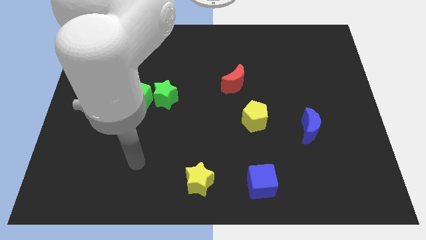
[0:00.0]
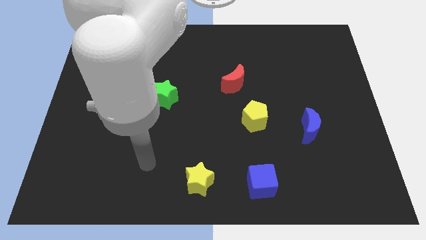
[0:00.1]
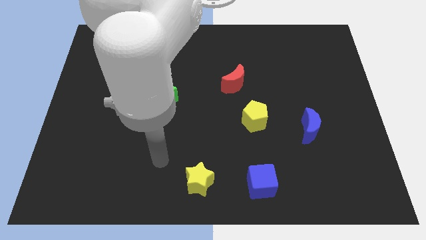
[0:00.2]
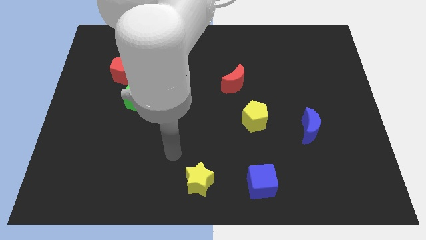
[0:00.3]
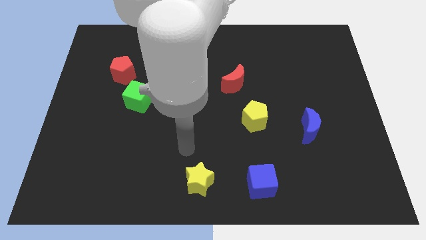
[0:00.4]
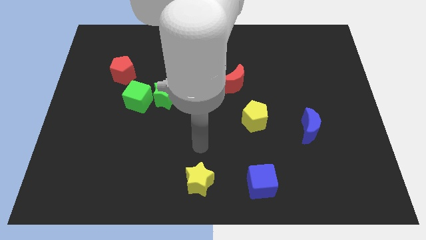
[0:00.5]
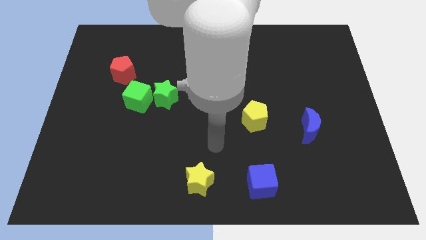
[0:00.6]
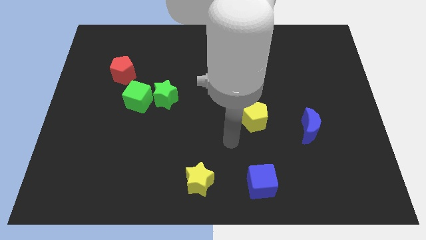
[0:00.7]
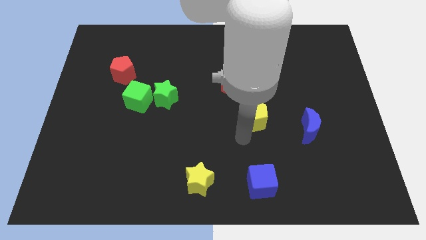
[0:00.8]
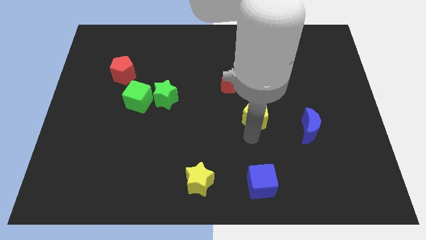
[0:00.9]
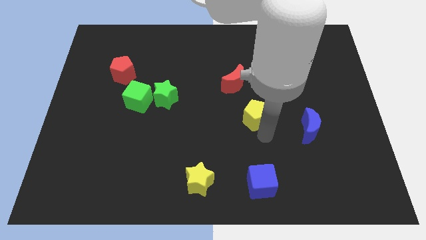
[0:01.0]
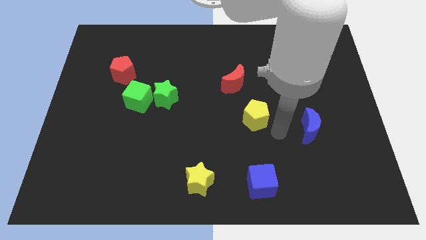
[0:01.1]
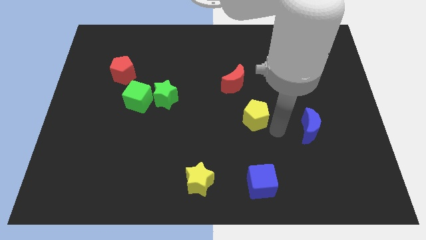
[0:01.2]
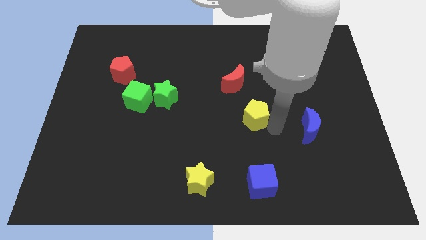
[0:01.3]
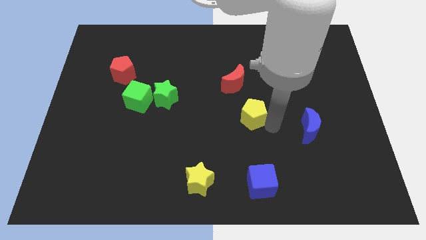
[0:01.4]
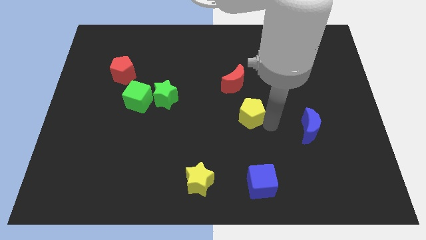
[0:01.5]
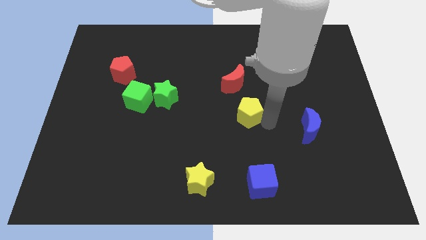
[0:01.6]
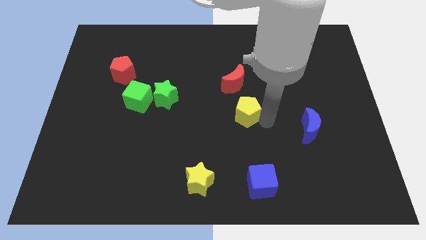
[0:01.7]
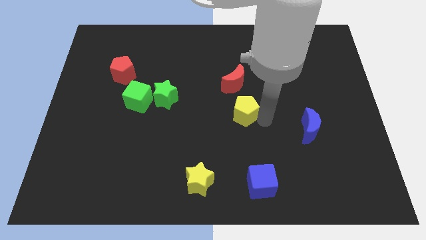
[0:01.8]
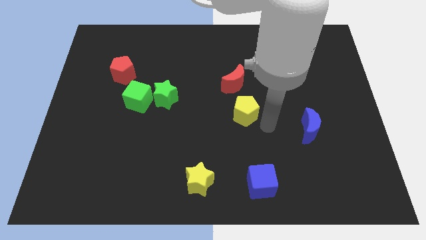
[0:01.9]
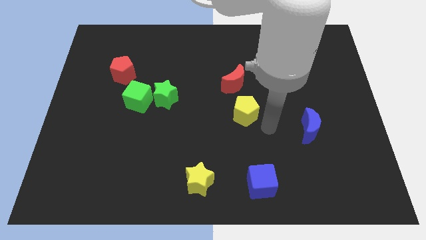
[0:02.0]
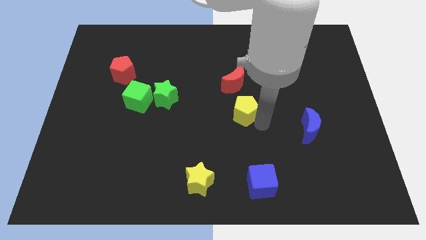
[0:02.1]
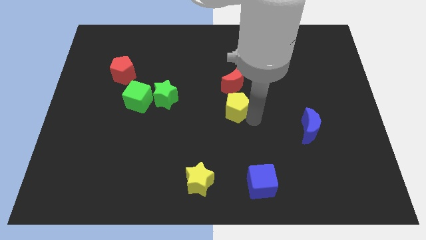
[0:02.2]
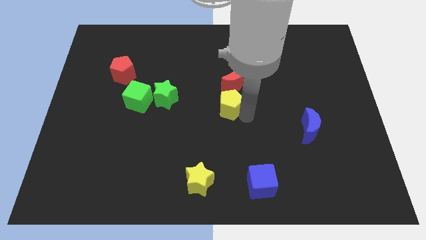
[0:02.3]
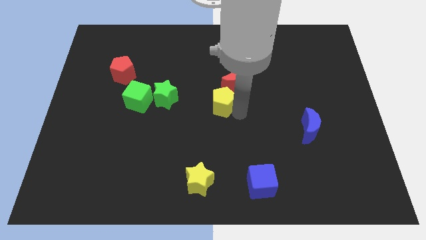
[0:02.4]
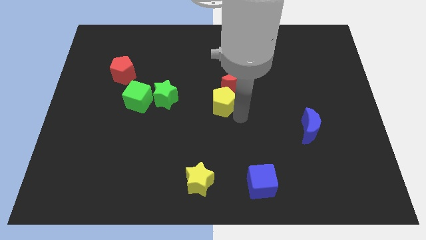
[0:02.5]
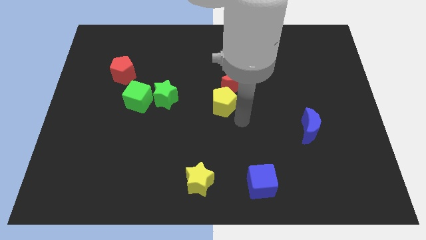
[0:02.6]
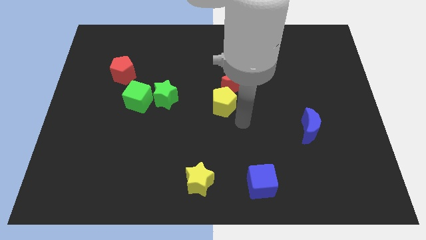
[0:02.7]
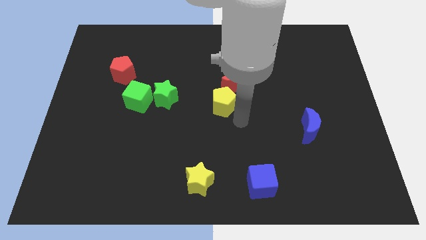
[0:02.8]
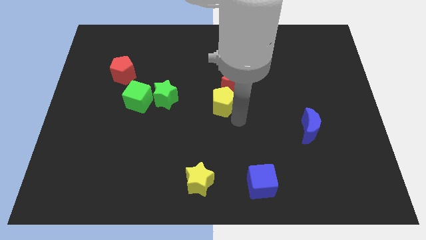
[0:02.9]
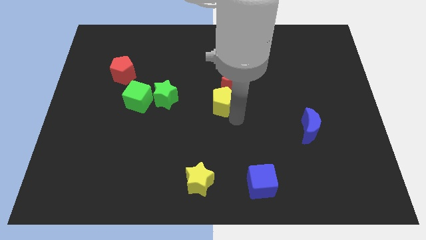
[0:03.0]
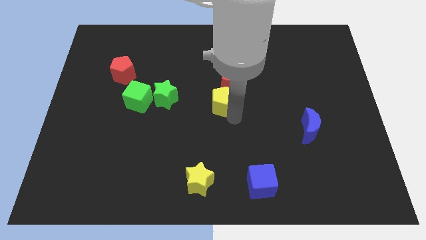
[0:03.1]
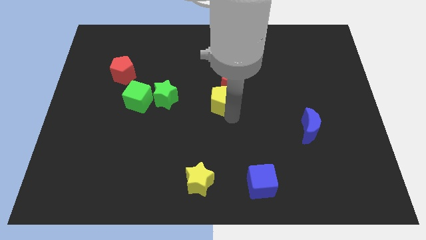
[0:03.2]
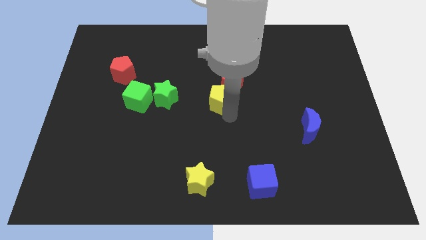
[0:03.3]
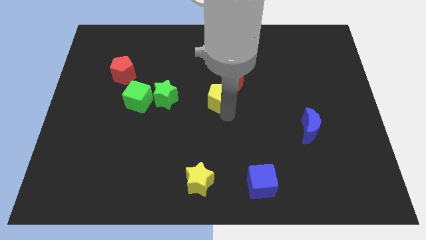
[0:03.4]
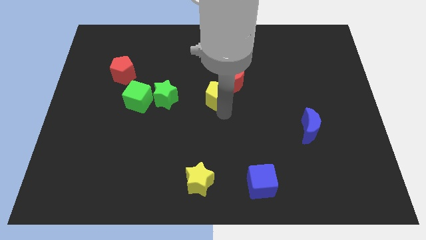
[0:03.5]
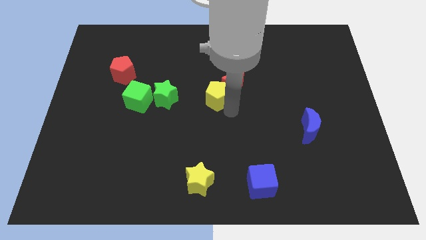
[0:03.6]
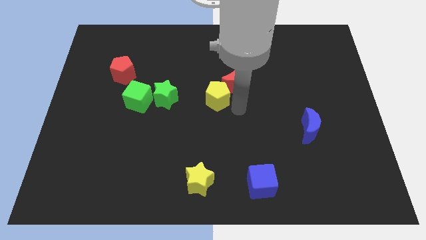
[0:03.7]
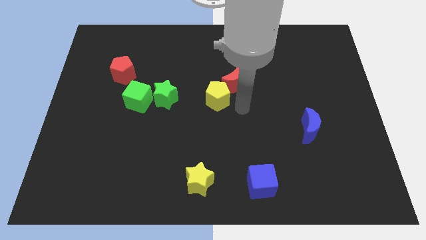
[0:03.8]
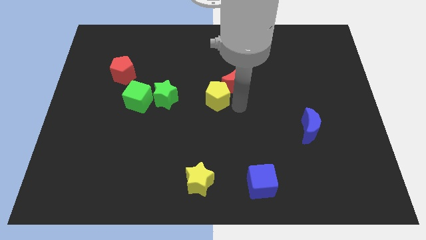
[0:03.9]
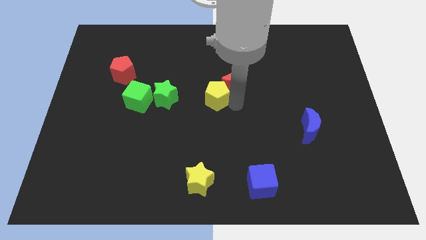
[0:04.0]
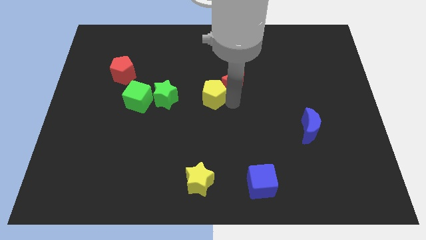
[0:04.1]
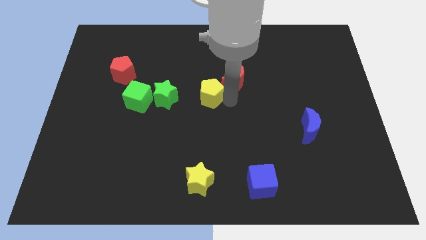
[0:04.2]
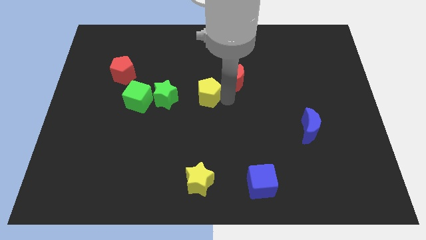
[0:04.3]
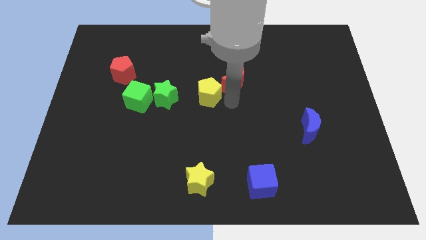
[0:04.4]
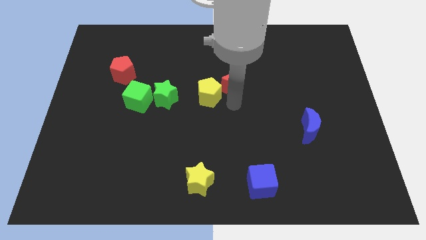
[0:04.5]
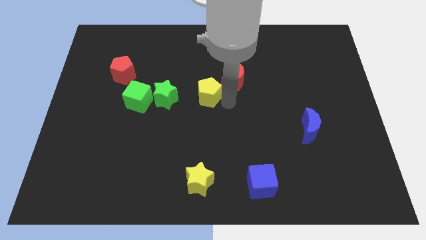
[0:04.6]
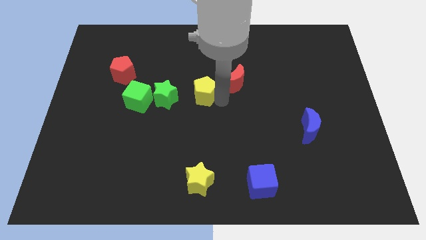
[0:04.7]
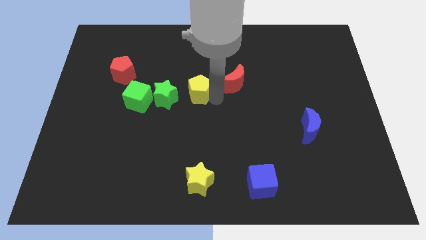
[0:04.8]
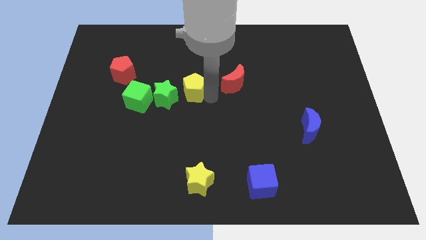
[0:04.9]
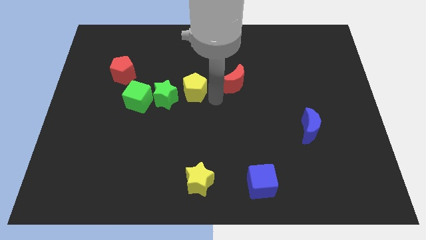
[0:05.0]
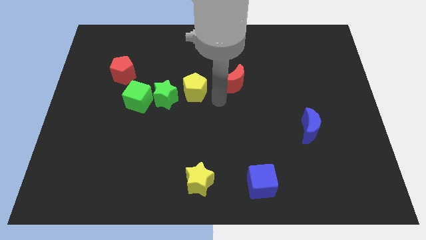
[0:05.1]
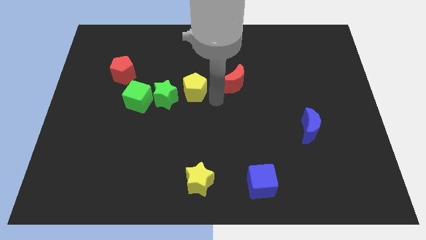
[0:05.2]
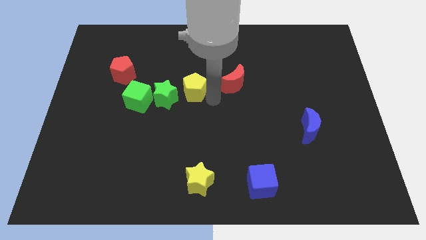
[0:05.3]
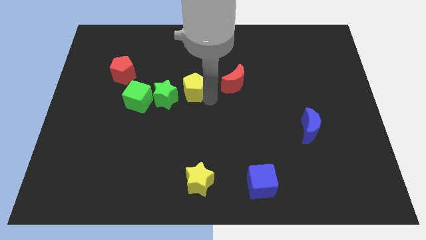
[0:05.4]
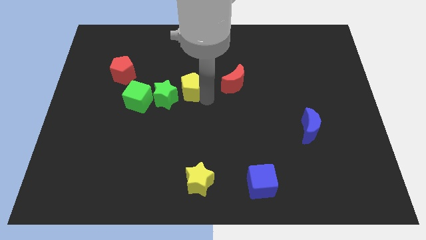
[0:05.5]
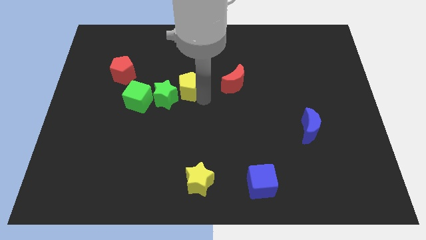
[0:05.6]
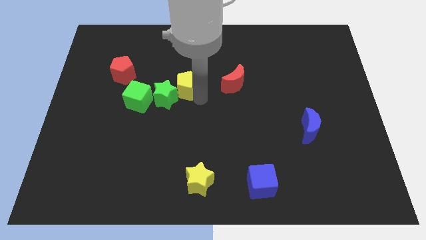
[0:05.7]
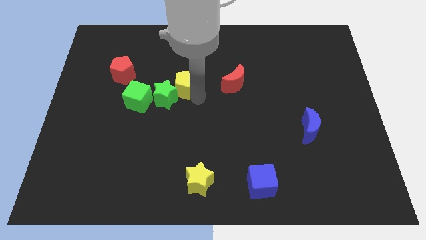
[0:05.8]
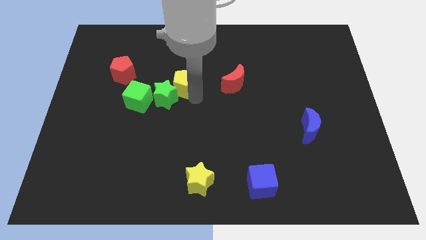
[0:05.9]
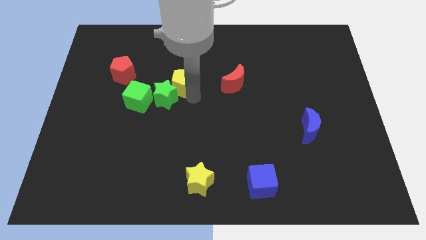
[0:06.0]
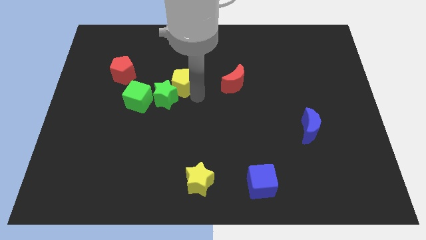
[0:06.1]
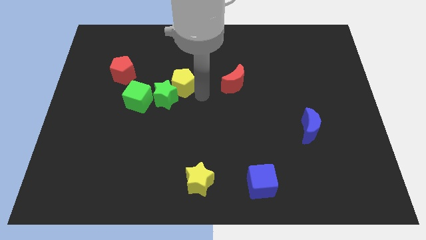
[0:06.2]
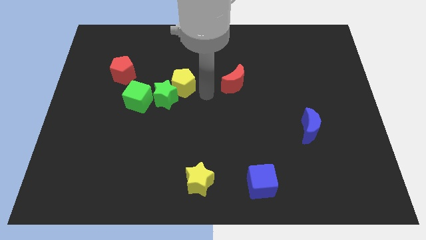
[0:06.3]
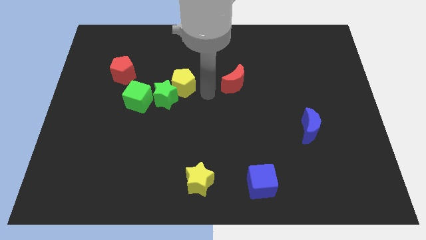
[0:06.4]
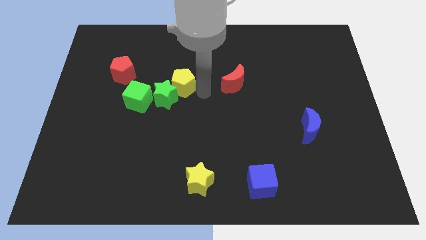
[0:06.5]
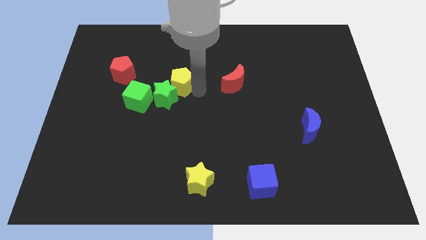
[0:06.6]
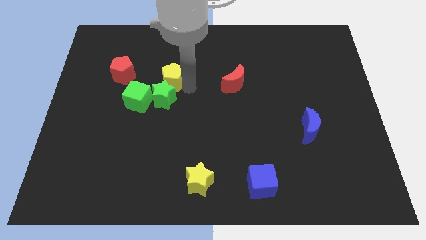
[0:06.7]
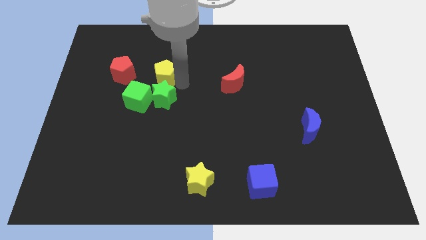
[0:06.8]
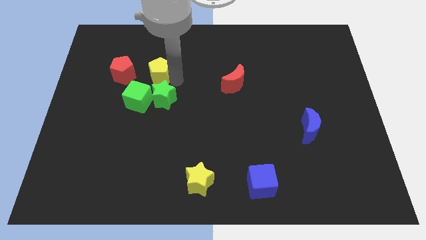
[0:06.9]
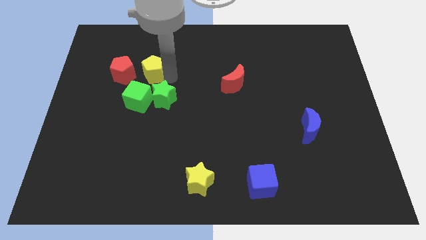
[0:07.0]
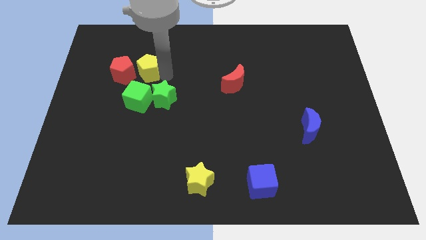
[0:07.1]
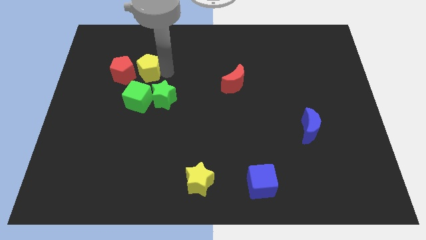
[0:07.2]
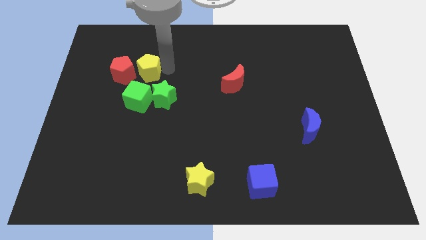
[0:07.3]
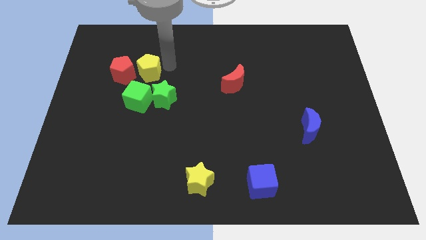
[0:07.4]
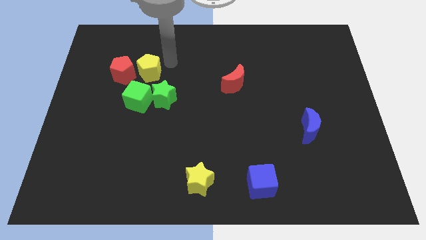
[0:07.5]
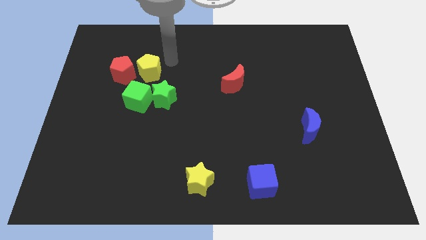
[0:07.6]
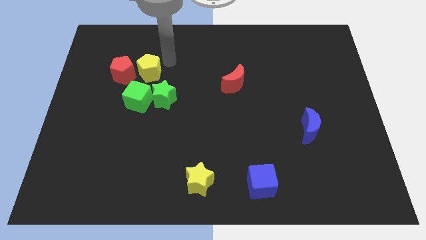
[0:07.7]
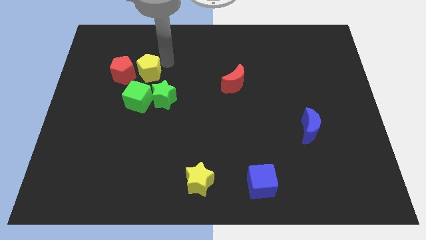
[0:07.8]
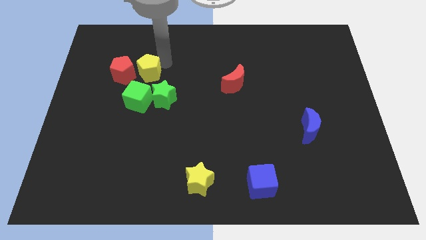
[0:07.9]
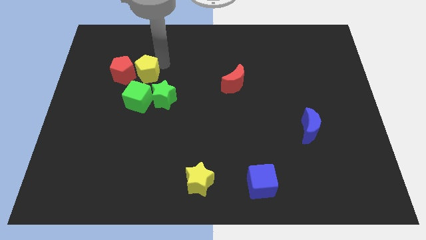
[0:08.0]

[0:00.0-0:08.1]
put the yellow pentagon to the red pentagon
